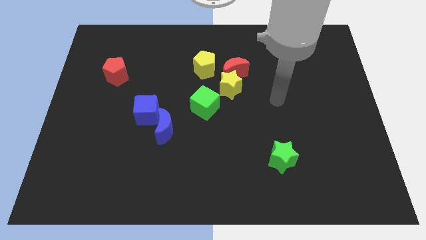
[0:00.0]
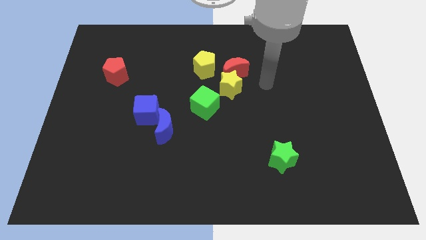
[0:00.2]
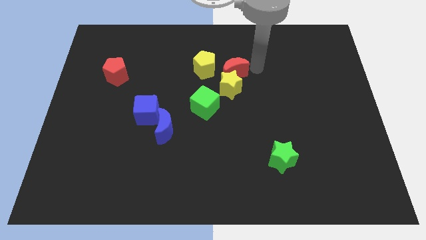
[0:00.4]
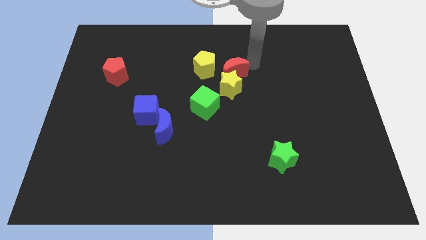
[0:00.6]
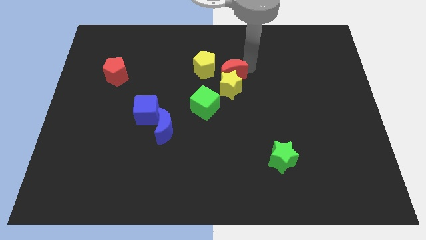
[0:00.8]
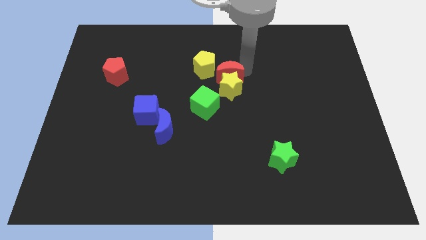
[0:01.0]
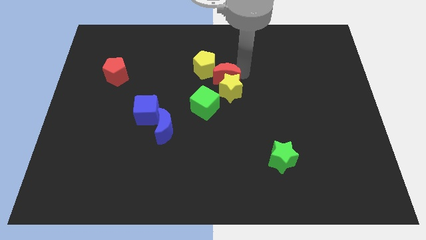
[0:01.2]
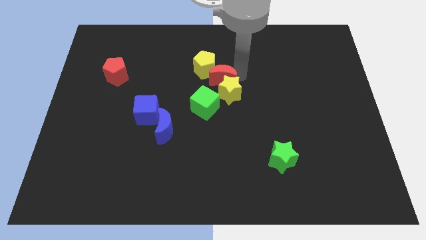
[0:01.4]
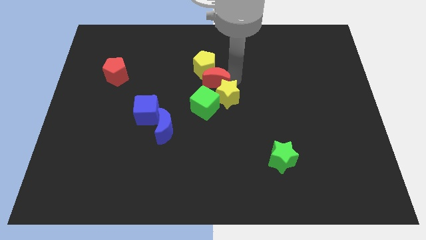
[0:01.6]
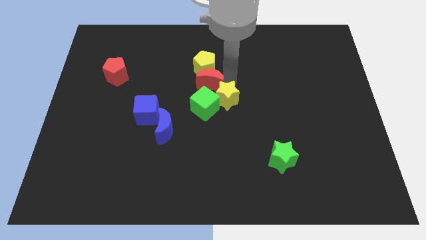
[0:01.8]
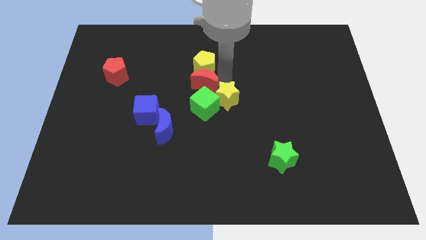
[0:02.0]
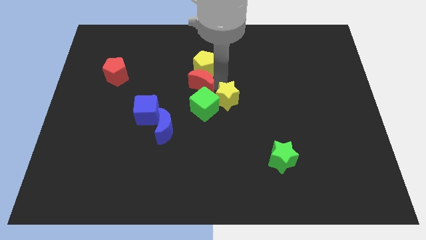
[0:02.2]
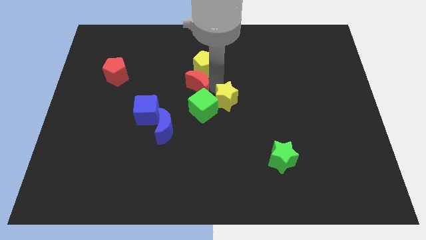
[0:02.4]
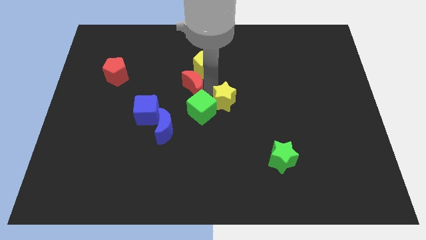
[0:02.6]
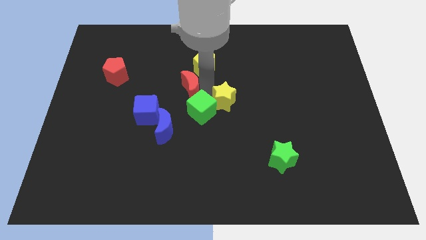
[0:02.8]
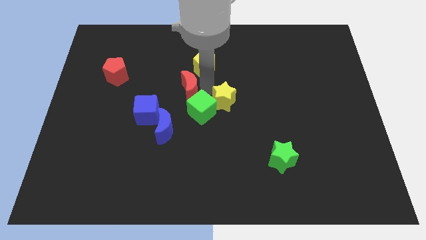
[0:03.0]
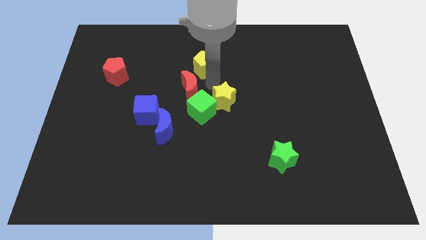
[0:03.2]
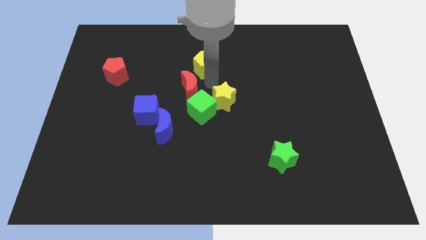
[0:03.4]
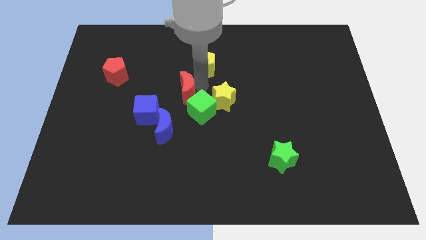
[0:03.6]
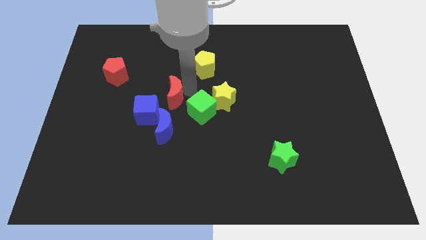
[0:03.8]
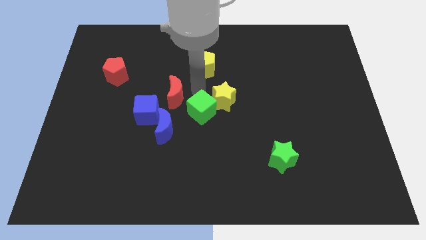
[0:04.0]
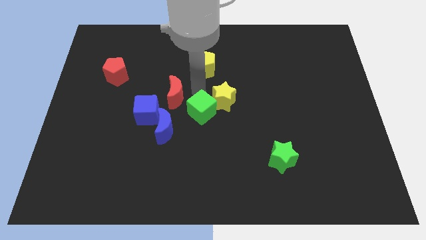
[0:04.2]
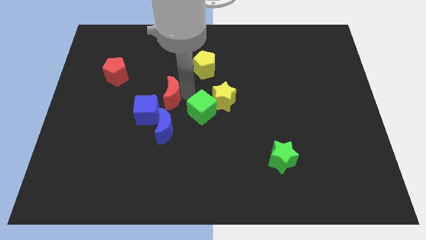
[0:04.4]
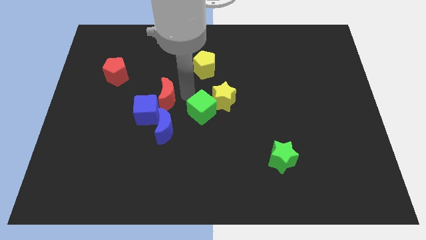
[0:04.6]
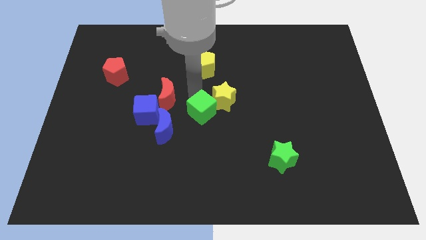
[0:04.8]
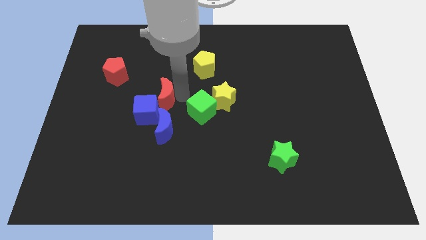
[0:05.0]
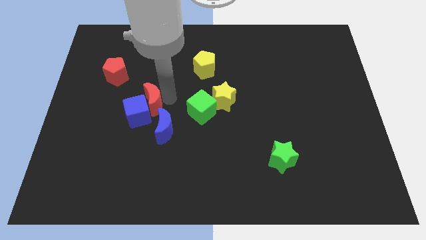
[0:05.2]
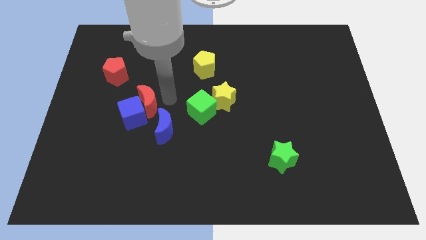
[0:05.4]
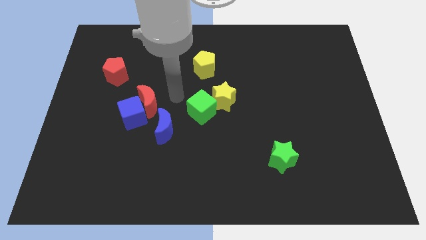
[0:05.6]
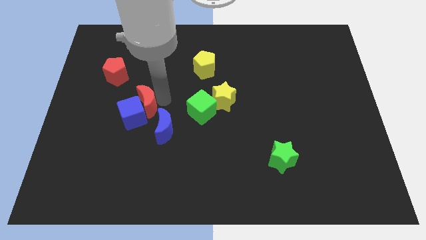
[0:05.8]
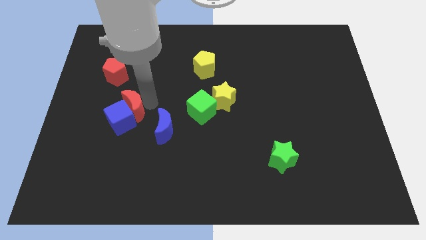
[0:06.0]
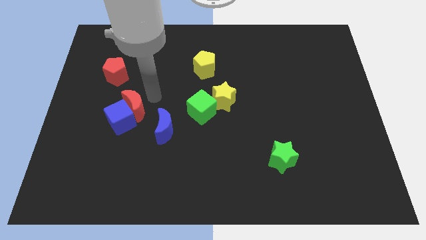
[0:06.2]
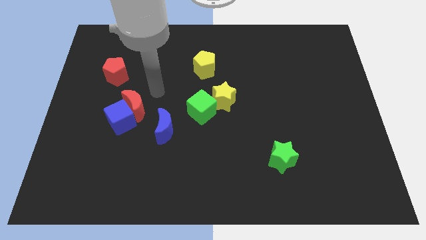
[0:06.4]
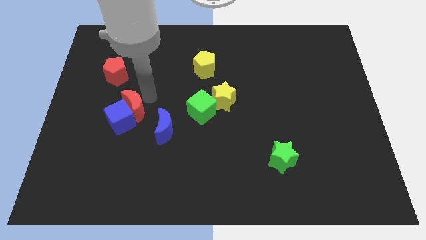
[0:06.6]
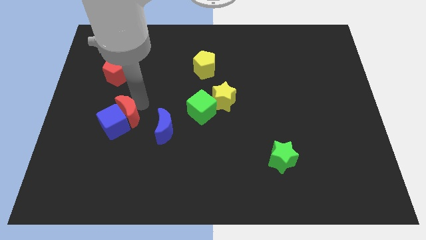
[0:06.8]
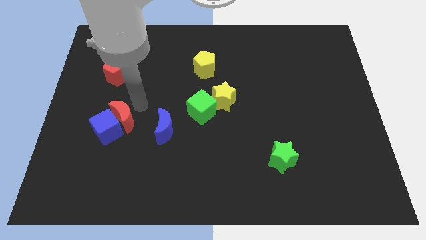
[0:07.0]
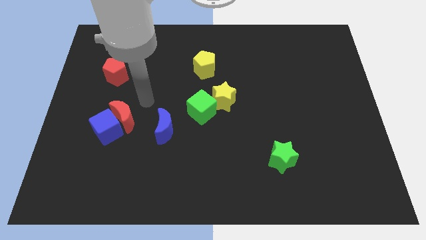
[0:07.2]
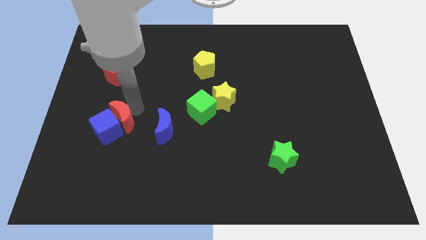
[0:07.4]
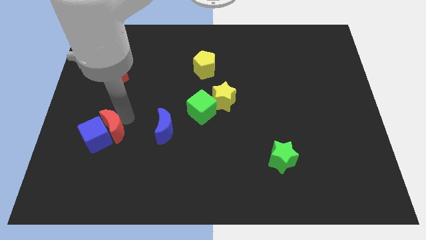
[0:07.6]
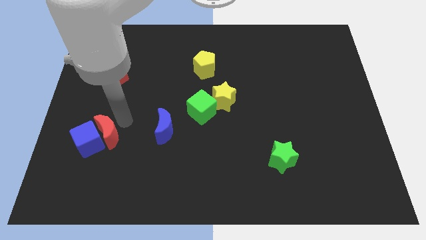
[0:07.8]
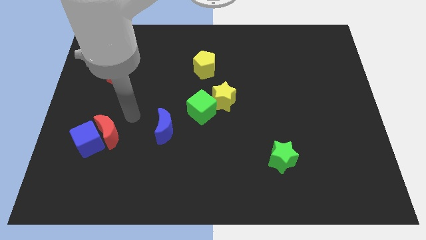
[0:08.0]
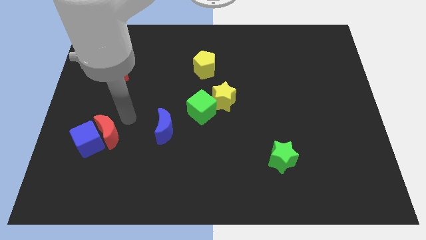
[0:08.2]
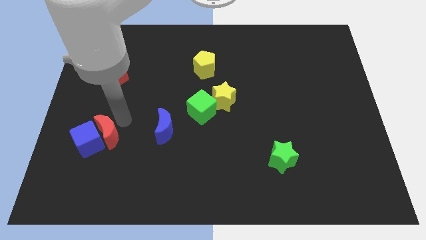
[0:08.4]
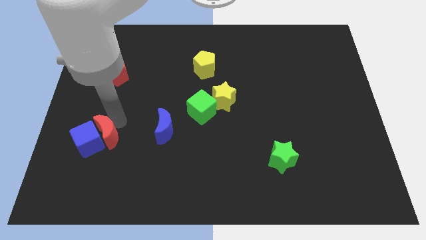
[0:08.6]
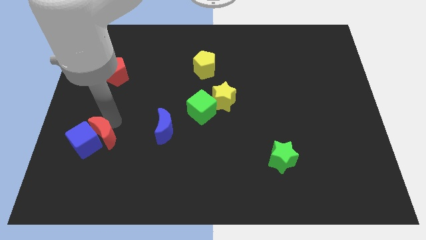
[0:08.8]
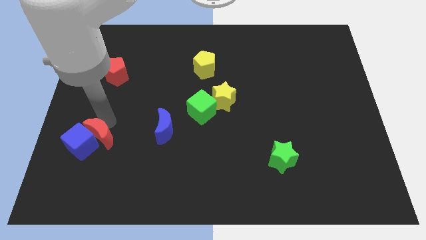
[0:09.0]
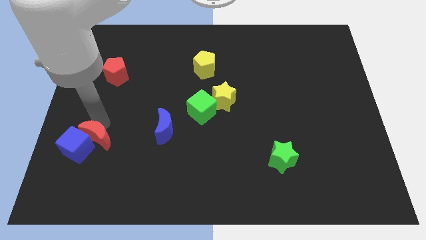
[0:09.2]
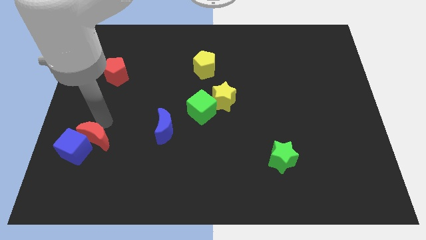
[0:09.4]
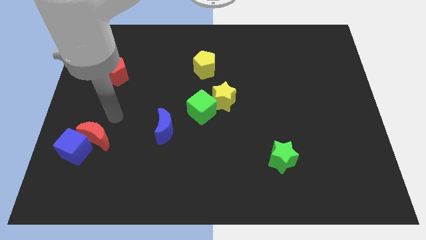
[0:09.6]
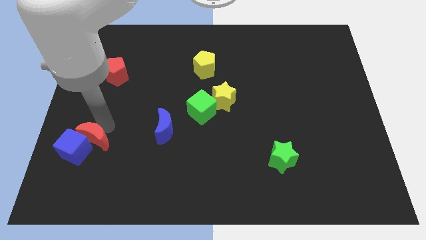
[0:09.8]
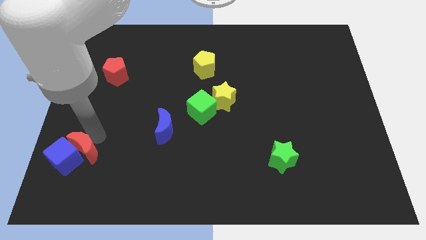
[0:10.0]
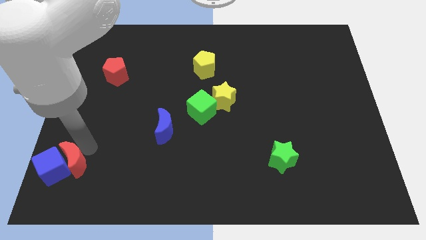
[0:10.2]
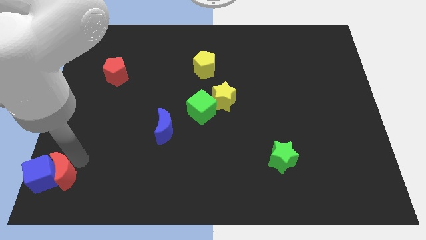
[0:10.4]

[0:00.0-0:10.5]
move the red moon to the bottom left corner

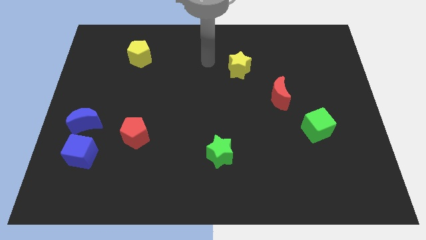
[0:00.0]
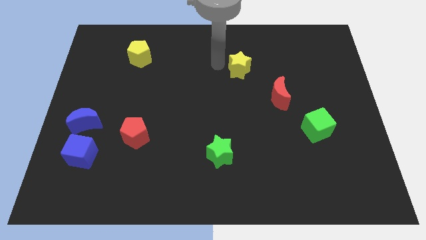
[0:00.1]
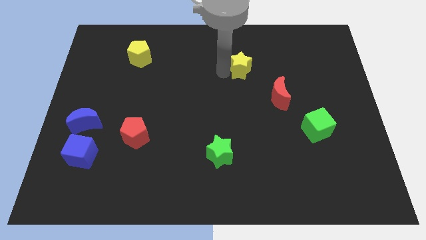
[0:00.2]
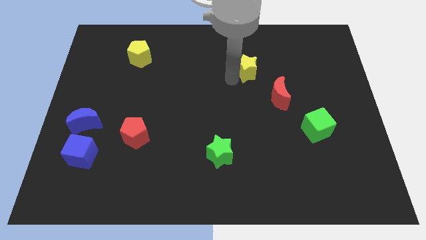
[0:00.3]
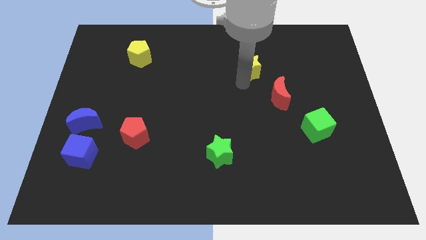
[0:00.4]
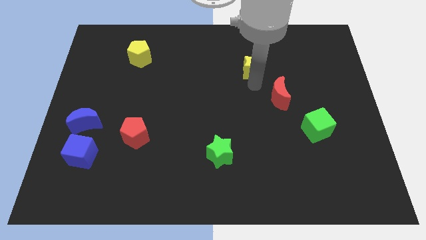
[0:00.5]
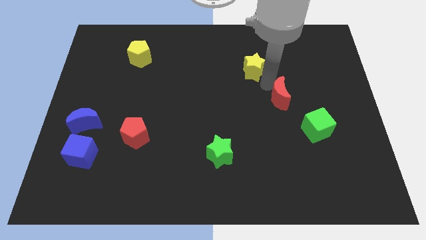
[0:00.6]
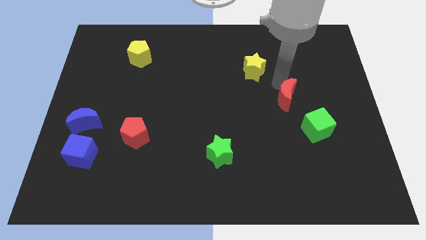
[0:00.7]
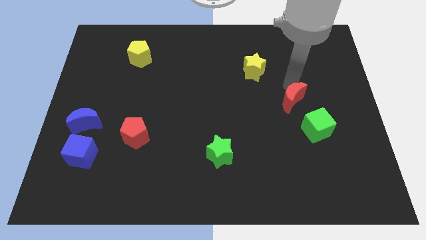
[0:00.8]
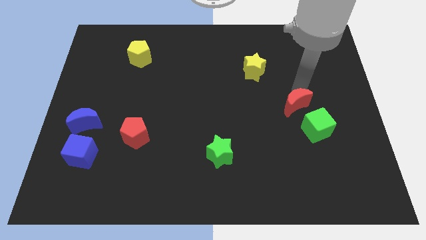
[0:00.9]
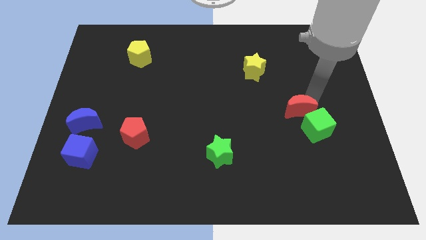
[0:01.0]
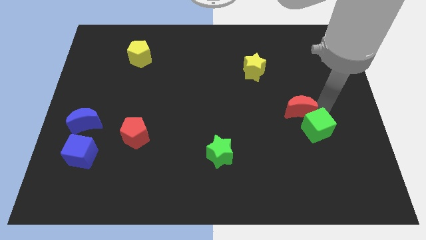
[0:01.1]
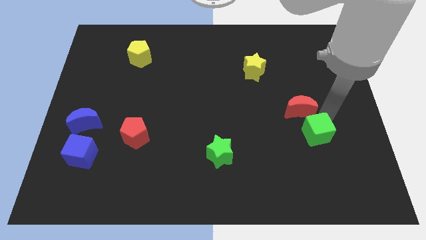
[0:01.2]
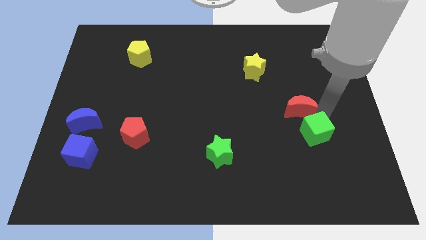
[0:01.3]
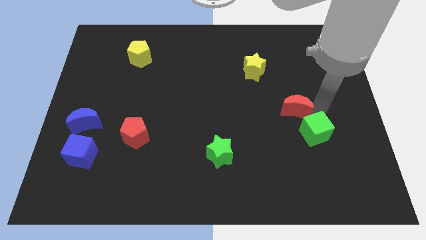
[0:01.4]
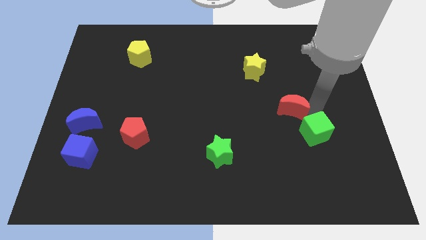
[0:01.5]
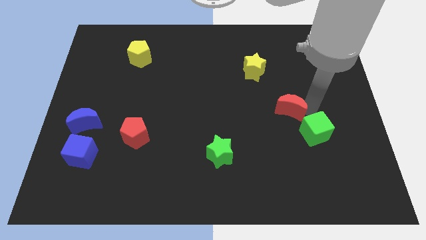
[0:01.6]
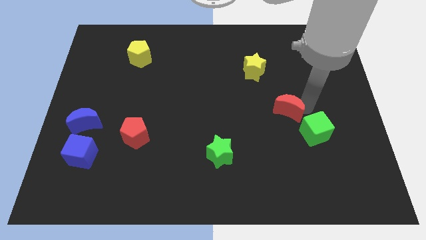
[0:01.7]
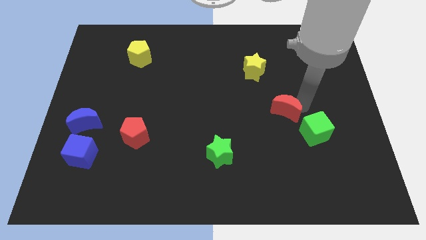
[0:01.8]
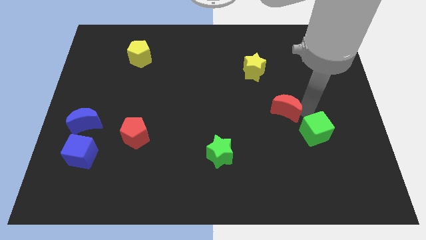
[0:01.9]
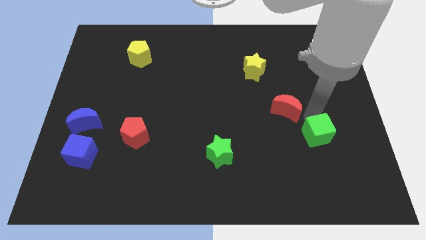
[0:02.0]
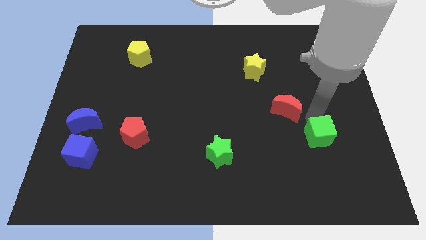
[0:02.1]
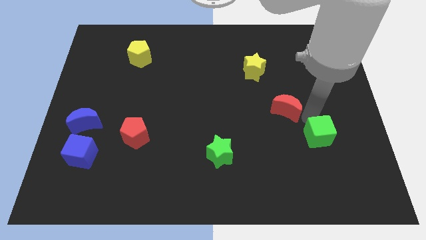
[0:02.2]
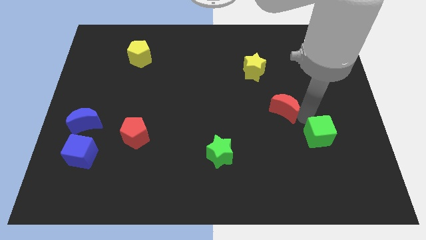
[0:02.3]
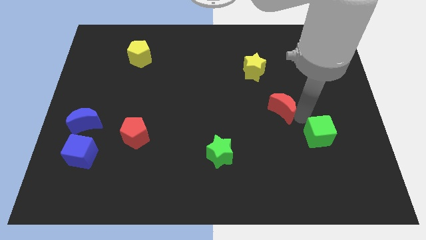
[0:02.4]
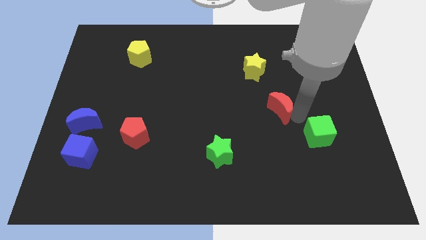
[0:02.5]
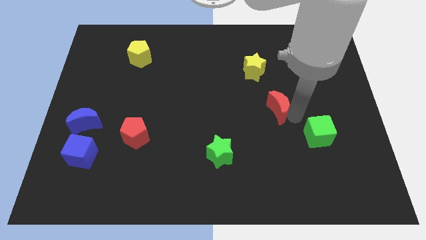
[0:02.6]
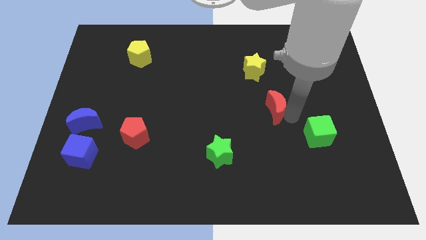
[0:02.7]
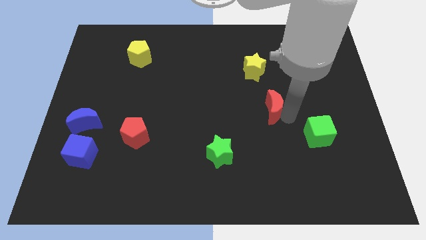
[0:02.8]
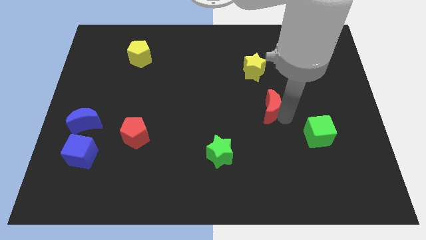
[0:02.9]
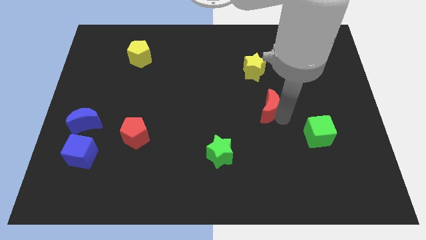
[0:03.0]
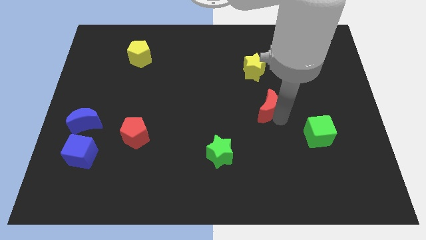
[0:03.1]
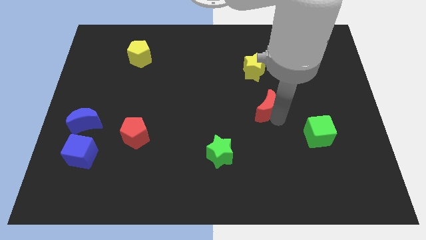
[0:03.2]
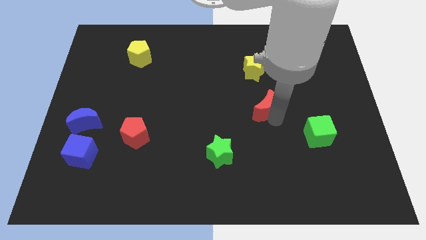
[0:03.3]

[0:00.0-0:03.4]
put the red moon to the middle
